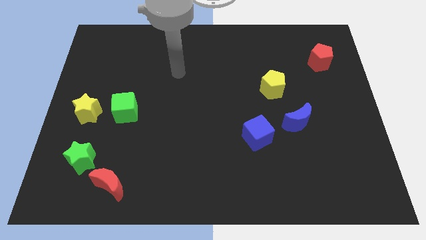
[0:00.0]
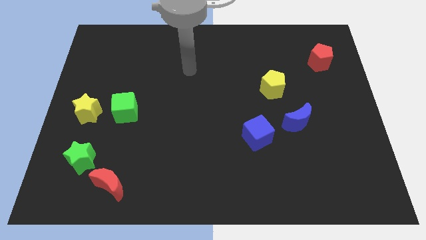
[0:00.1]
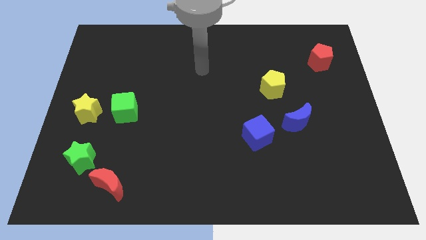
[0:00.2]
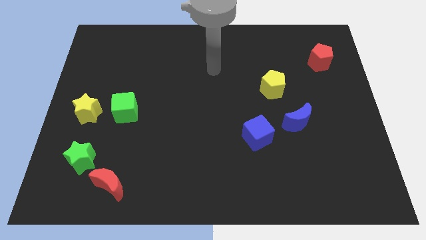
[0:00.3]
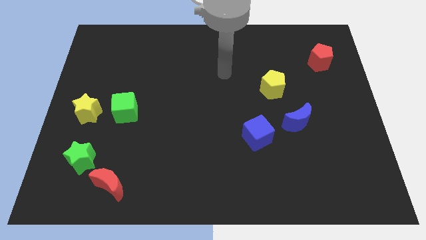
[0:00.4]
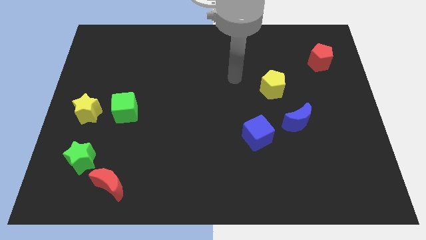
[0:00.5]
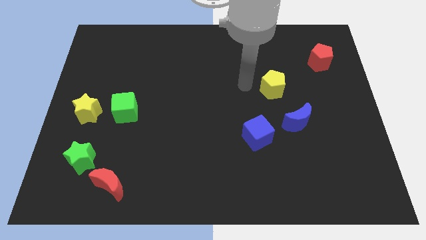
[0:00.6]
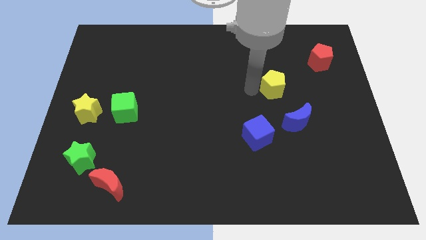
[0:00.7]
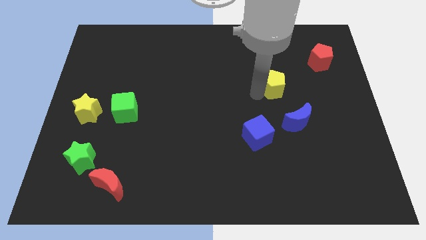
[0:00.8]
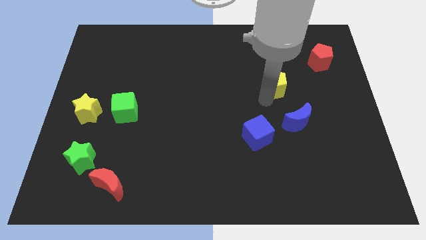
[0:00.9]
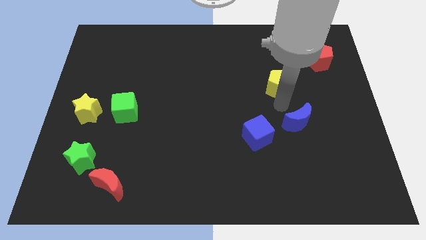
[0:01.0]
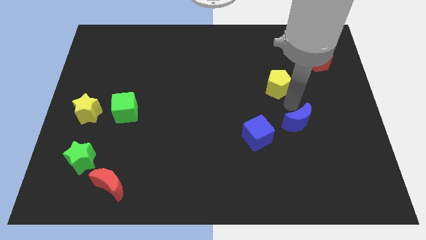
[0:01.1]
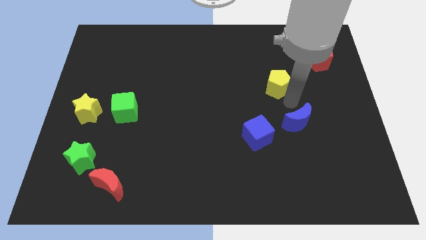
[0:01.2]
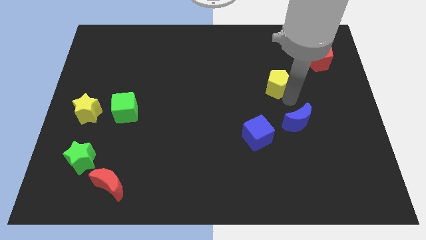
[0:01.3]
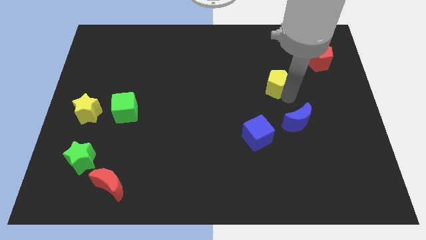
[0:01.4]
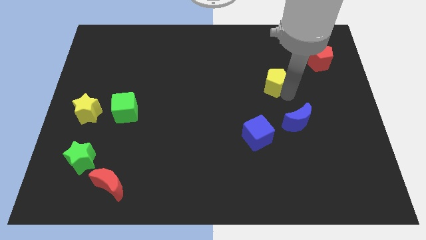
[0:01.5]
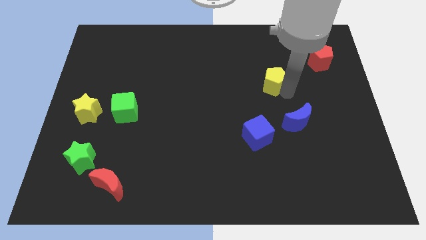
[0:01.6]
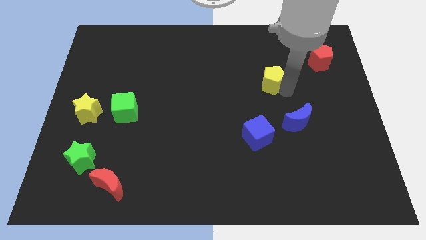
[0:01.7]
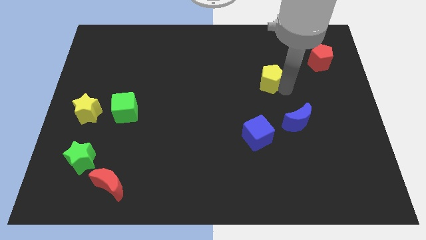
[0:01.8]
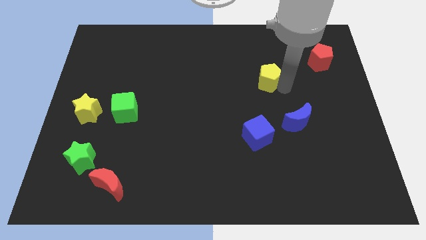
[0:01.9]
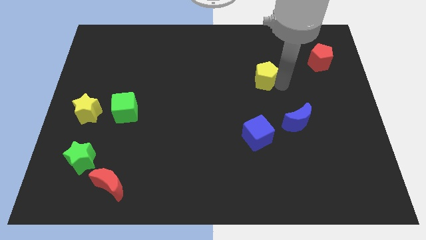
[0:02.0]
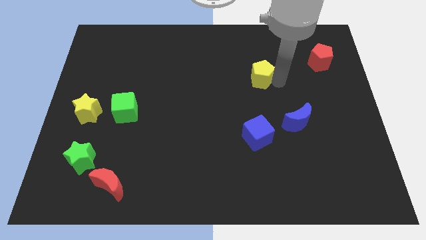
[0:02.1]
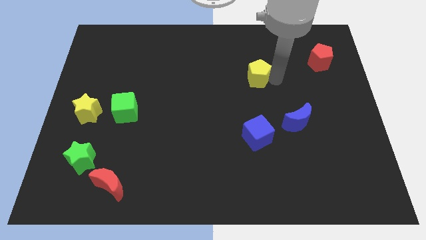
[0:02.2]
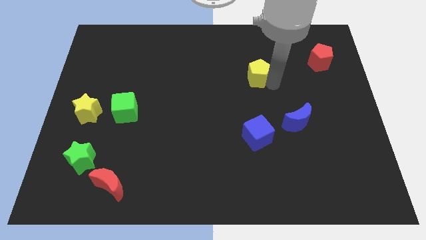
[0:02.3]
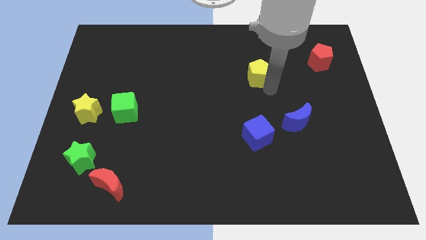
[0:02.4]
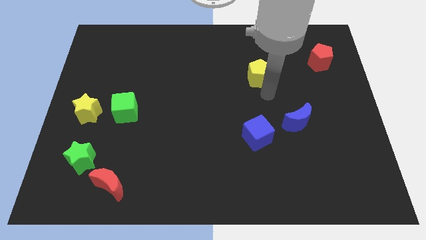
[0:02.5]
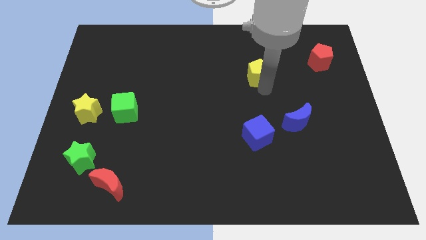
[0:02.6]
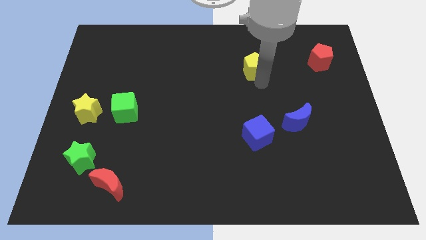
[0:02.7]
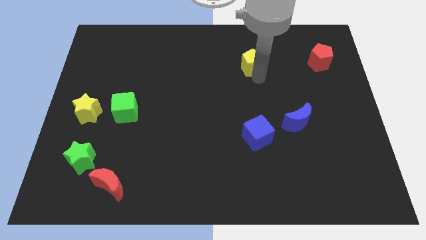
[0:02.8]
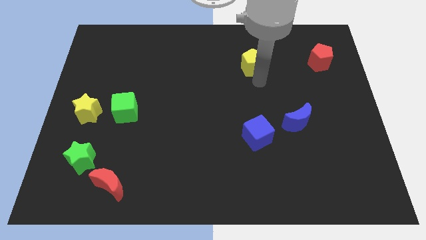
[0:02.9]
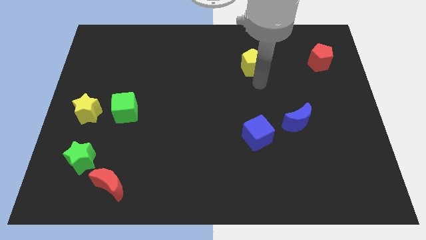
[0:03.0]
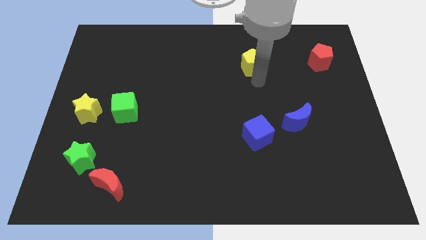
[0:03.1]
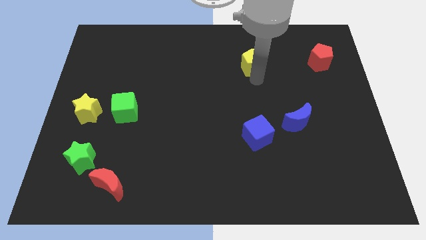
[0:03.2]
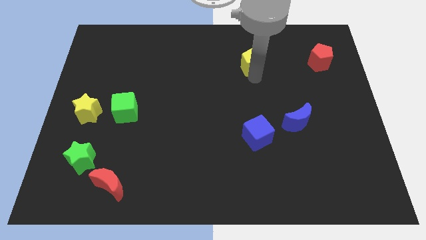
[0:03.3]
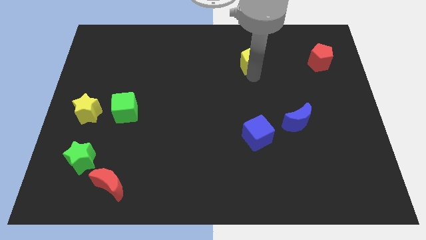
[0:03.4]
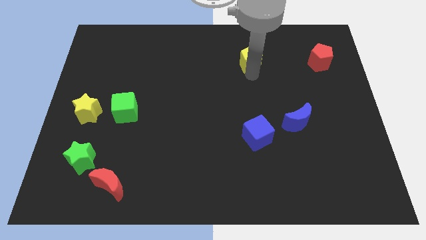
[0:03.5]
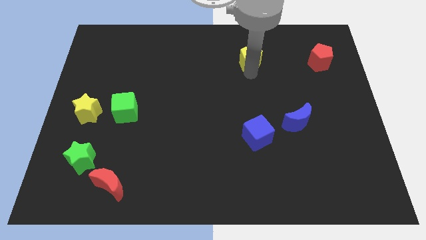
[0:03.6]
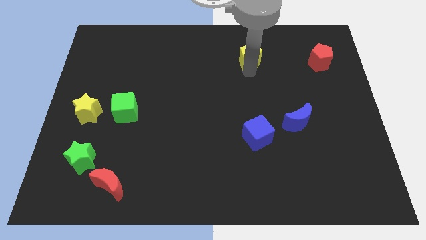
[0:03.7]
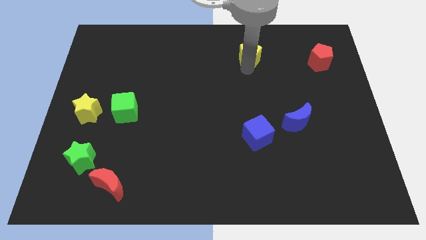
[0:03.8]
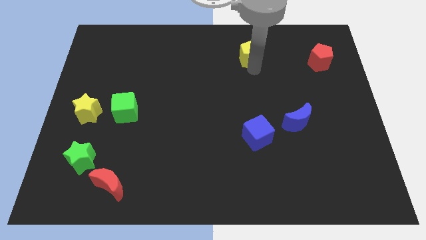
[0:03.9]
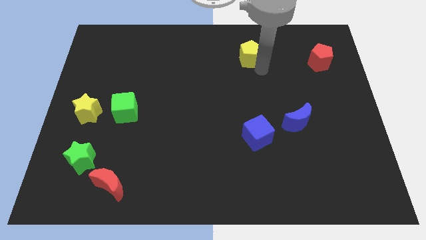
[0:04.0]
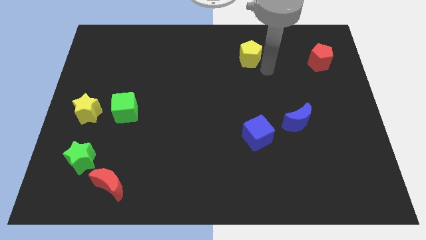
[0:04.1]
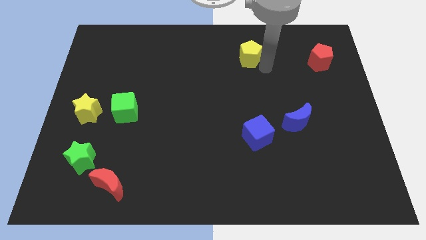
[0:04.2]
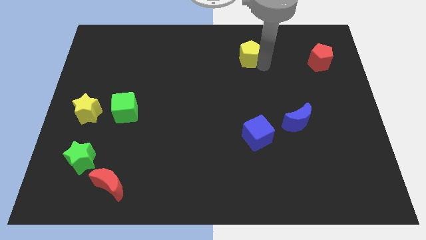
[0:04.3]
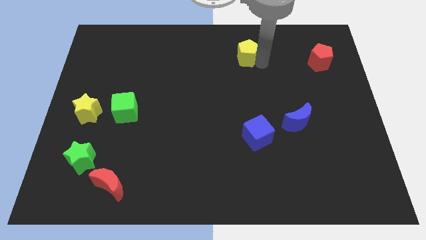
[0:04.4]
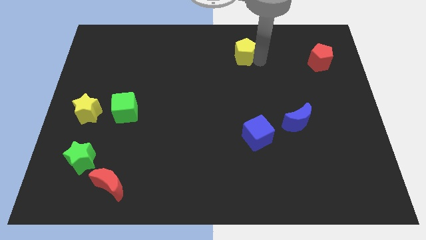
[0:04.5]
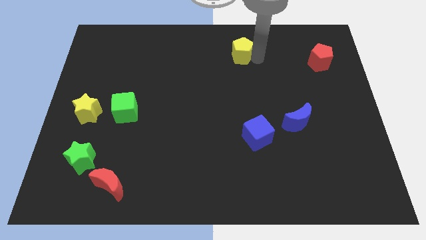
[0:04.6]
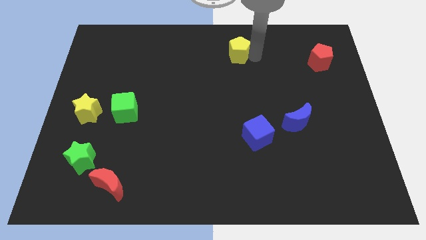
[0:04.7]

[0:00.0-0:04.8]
put the yellow pentagon to the towards your base

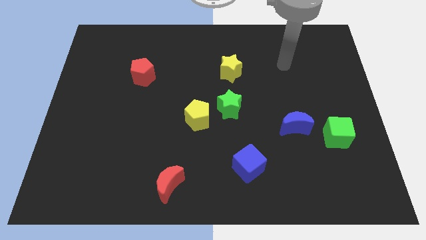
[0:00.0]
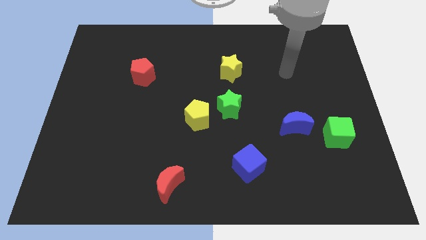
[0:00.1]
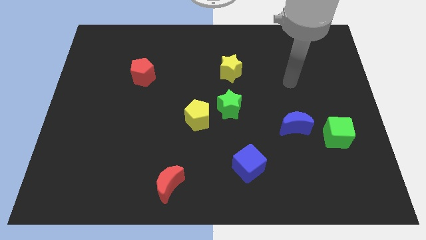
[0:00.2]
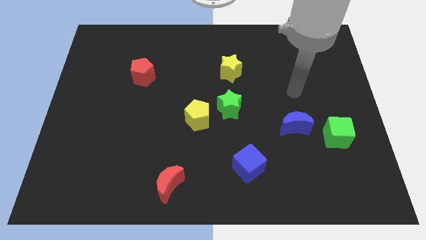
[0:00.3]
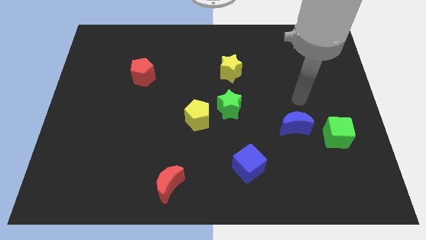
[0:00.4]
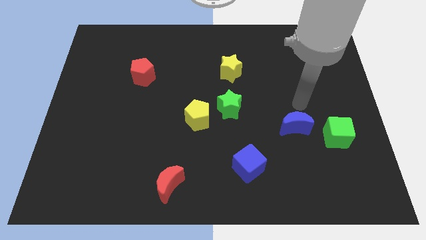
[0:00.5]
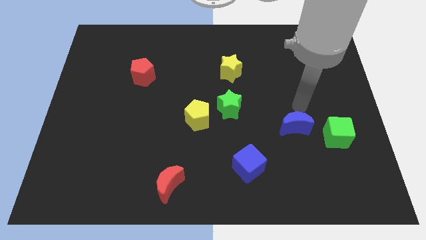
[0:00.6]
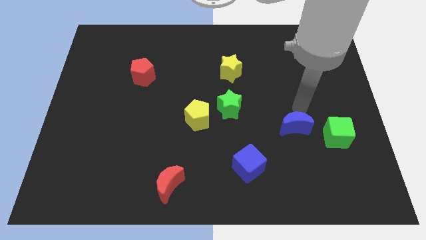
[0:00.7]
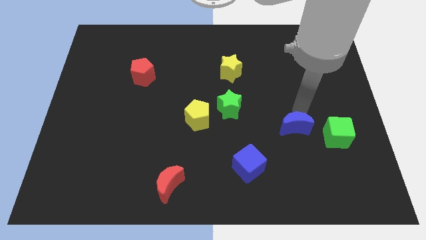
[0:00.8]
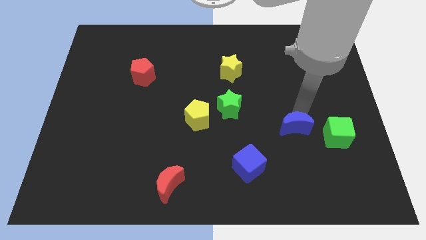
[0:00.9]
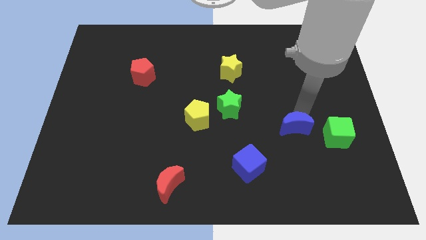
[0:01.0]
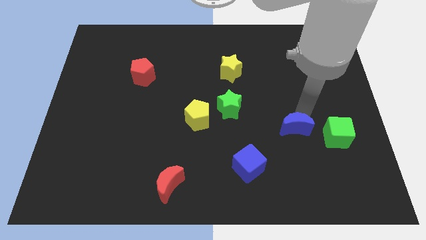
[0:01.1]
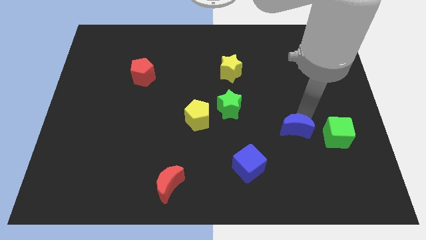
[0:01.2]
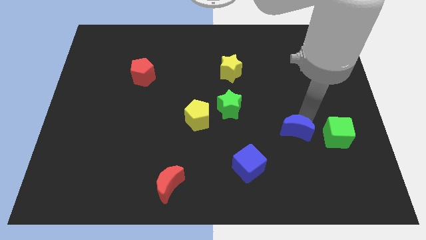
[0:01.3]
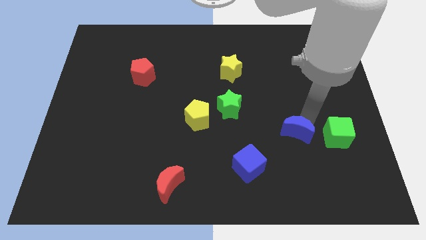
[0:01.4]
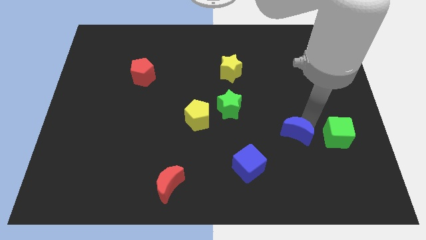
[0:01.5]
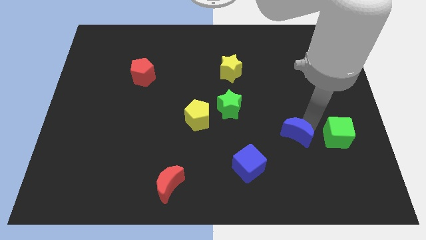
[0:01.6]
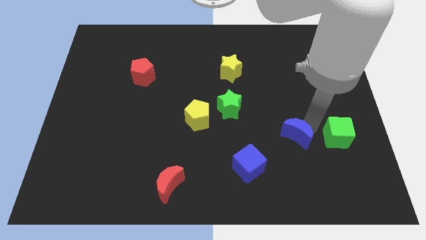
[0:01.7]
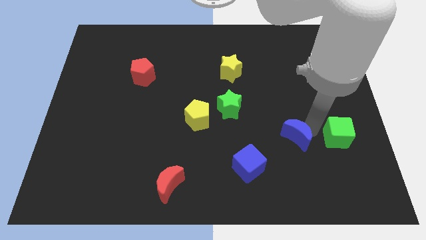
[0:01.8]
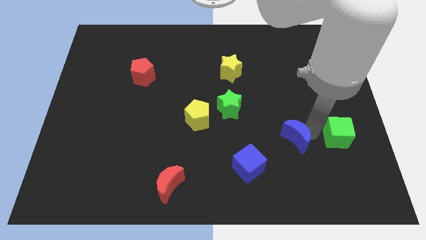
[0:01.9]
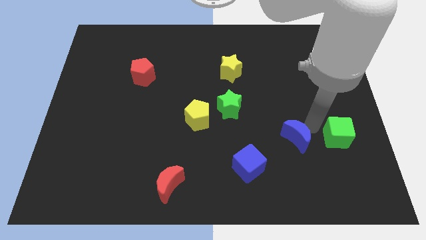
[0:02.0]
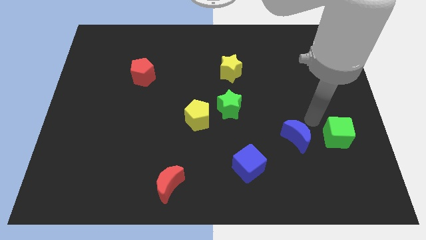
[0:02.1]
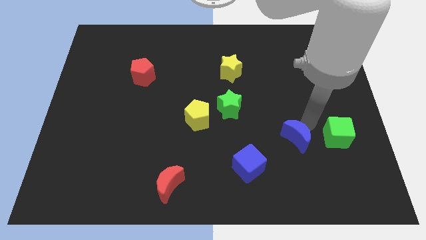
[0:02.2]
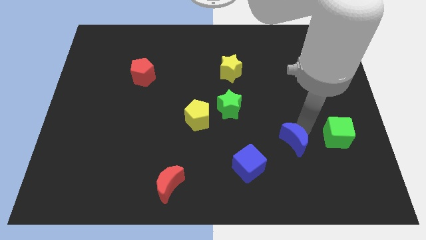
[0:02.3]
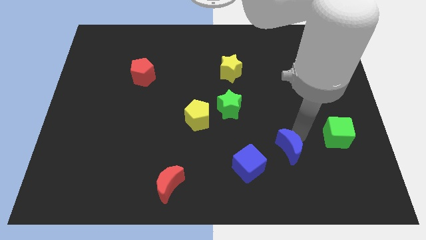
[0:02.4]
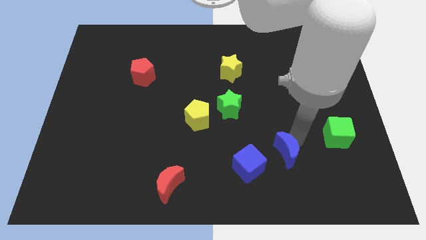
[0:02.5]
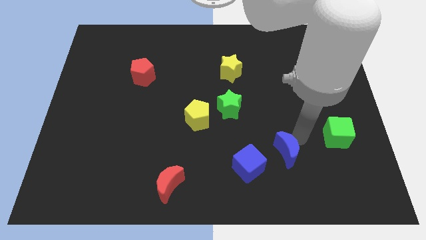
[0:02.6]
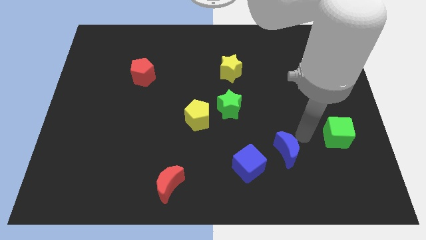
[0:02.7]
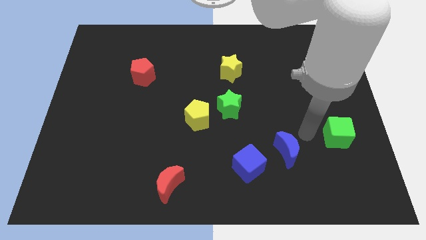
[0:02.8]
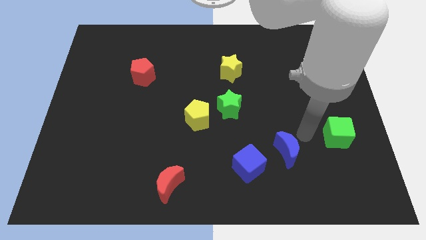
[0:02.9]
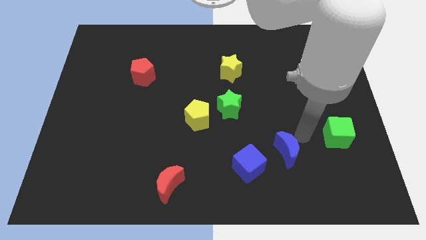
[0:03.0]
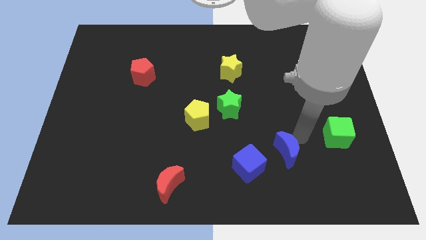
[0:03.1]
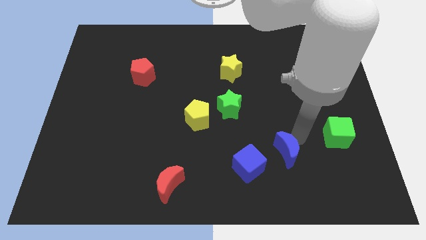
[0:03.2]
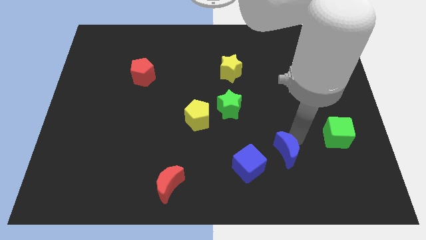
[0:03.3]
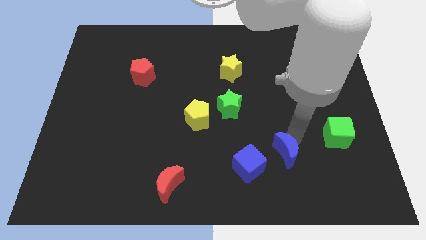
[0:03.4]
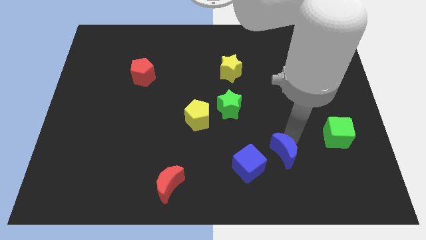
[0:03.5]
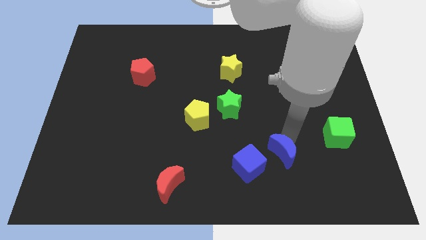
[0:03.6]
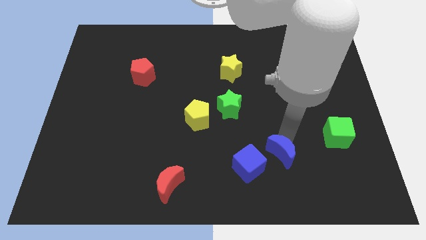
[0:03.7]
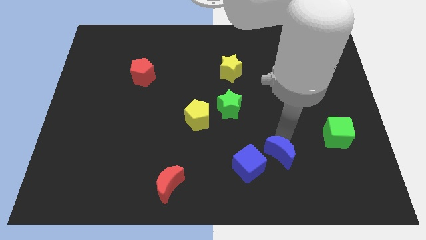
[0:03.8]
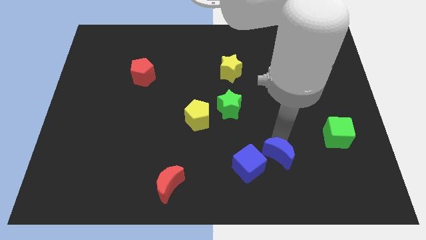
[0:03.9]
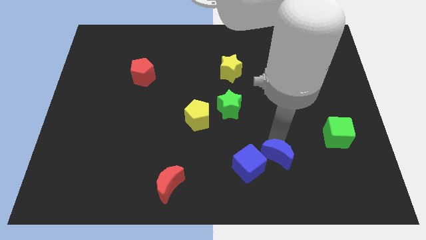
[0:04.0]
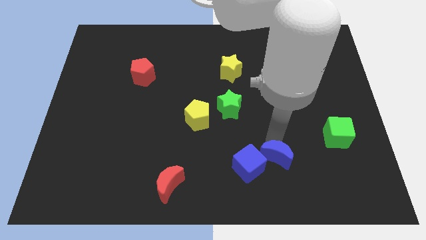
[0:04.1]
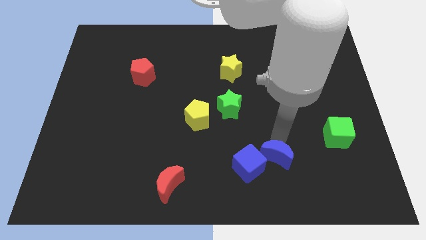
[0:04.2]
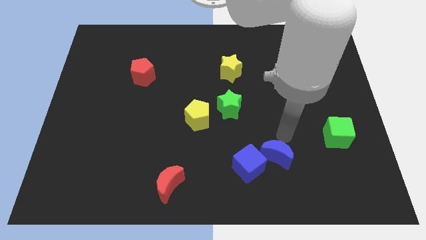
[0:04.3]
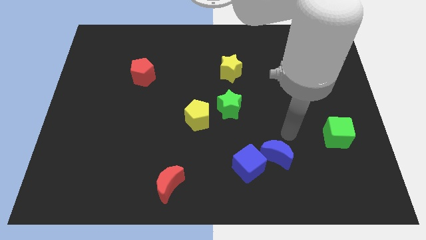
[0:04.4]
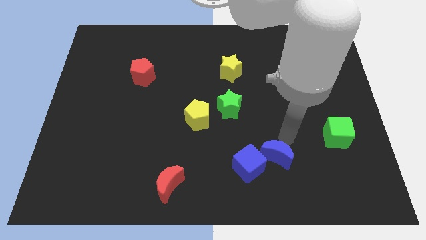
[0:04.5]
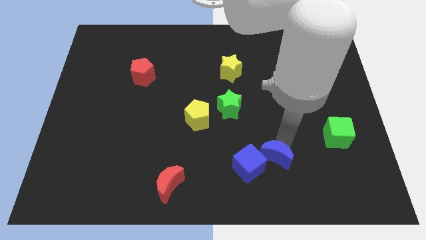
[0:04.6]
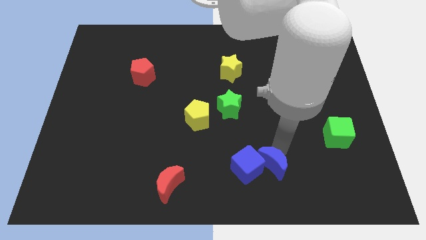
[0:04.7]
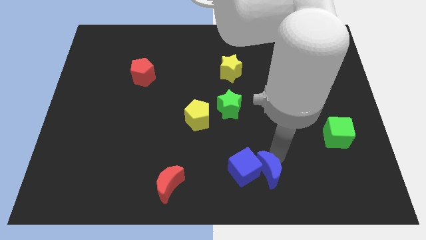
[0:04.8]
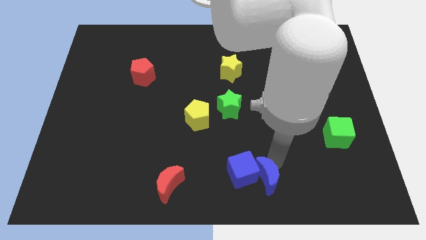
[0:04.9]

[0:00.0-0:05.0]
push the blue moon to the bottom
